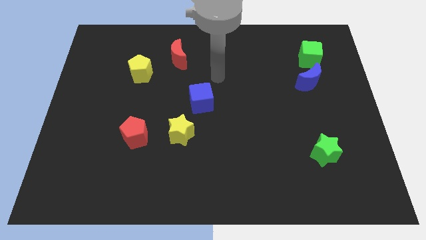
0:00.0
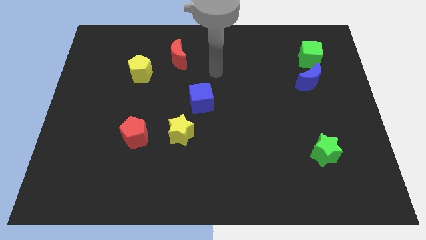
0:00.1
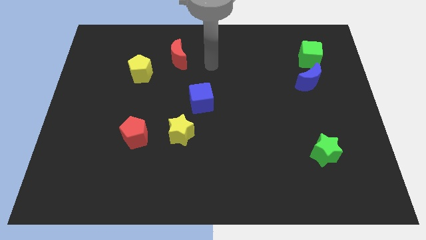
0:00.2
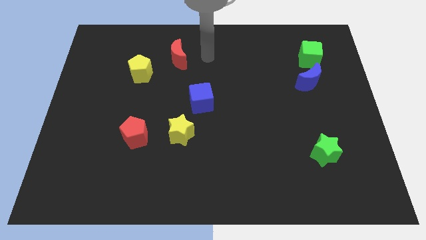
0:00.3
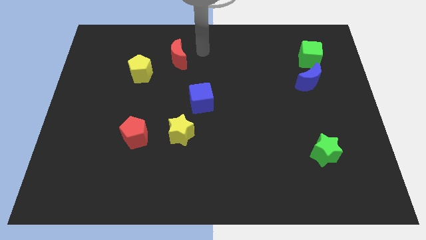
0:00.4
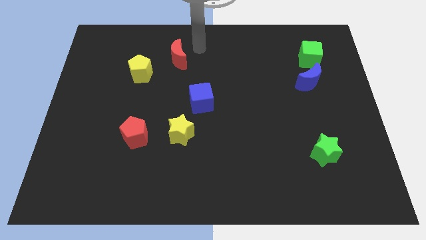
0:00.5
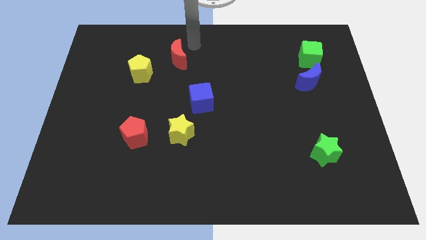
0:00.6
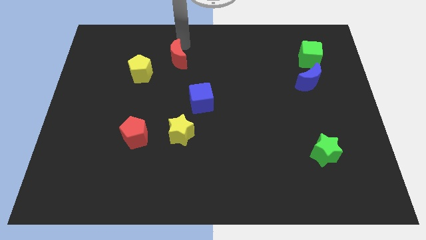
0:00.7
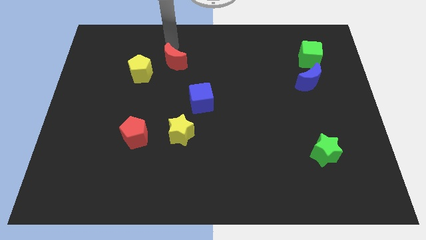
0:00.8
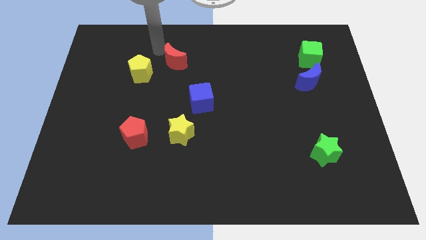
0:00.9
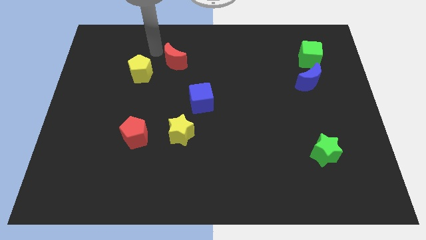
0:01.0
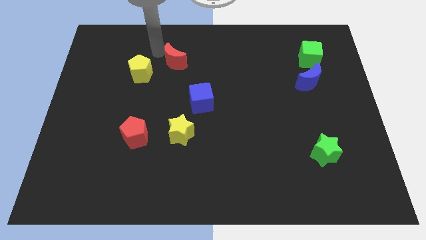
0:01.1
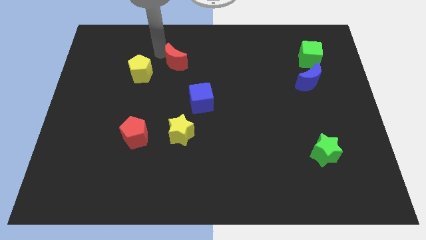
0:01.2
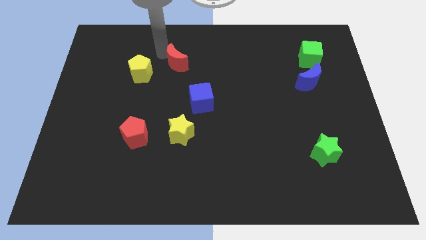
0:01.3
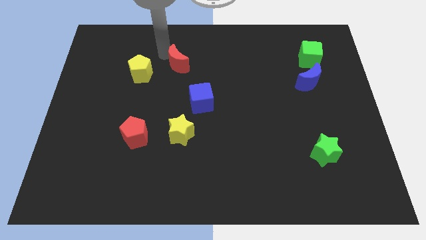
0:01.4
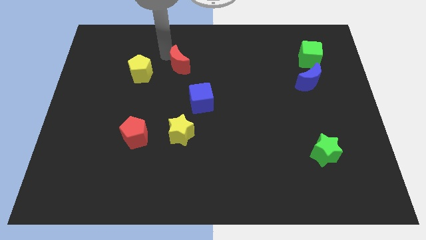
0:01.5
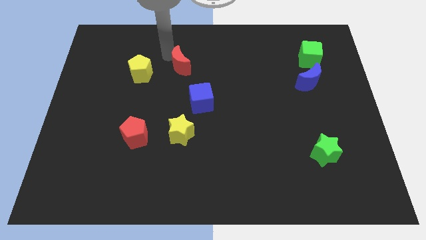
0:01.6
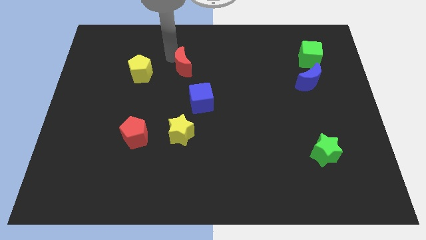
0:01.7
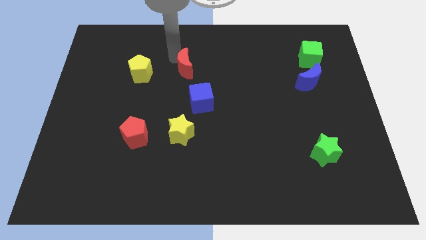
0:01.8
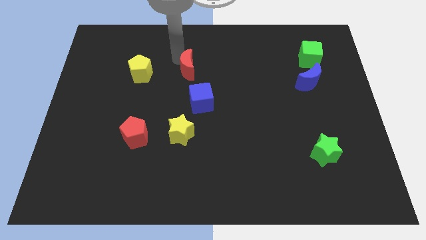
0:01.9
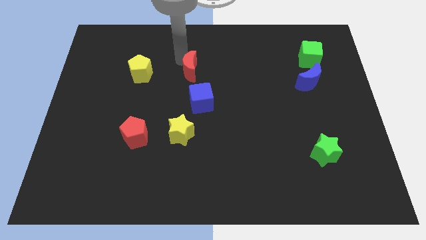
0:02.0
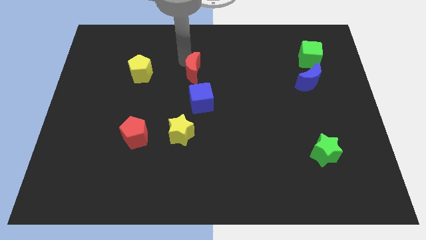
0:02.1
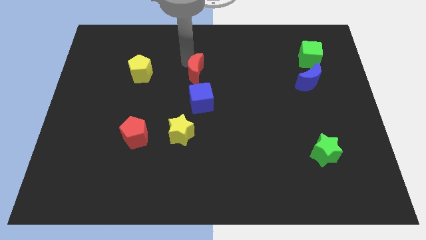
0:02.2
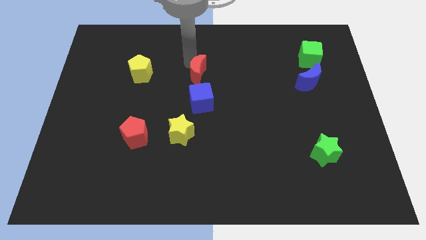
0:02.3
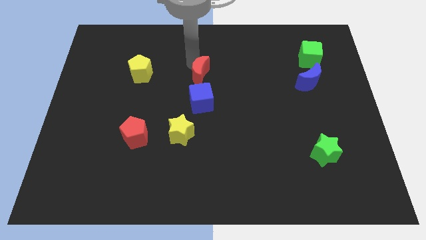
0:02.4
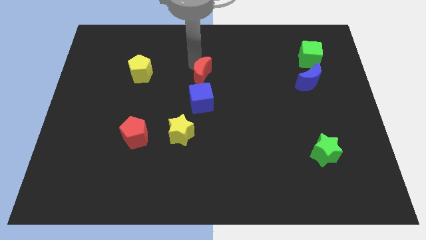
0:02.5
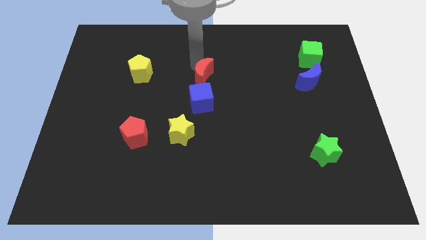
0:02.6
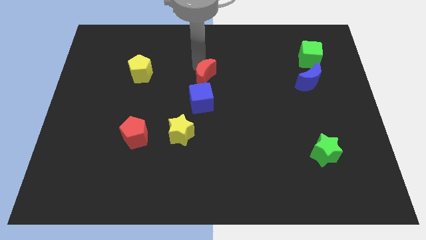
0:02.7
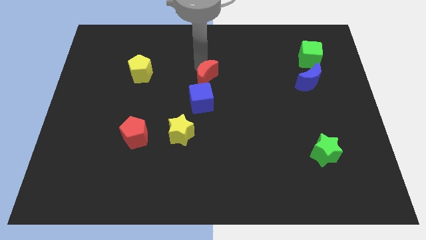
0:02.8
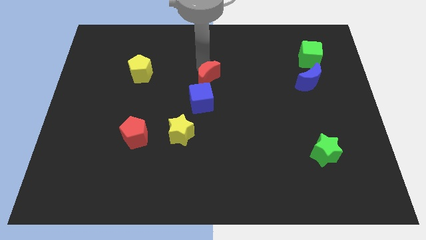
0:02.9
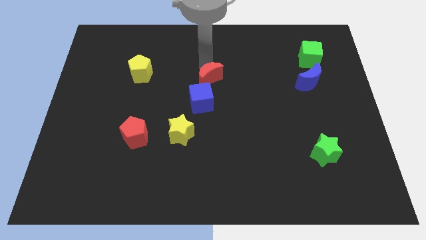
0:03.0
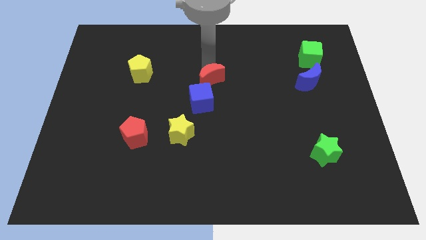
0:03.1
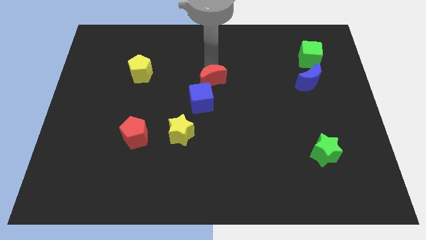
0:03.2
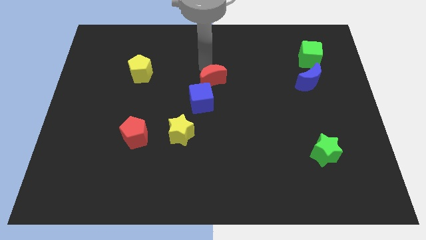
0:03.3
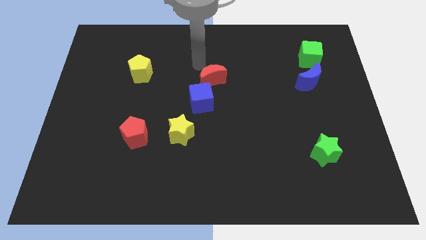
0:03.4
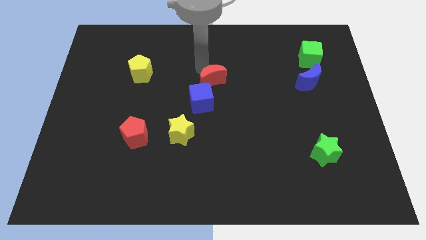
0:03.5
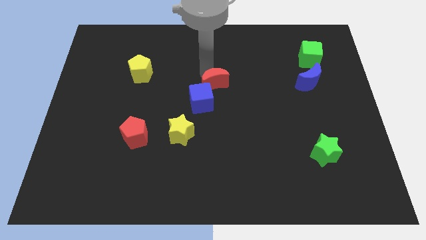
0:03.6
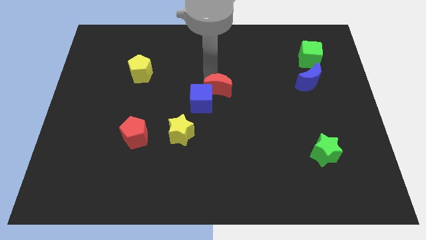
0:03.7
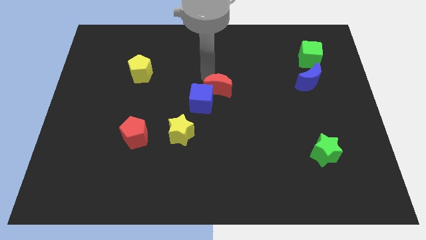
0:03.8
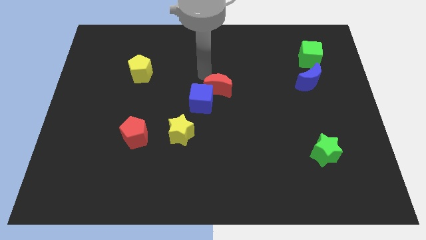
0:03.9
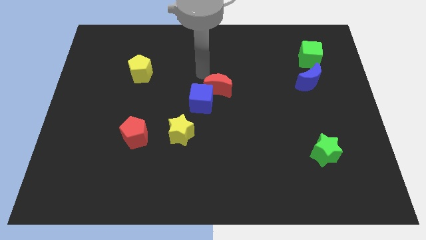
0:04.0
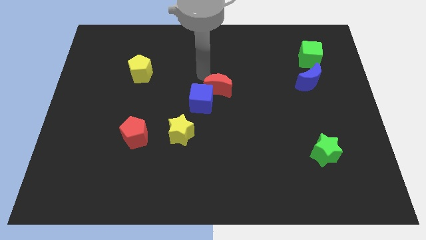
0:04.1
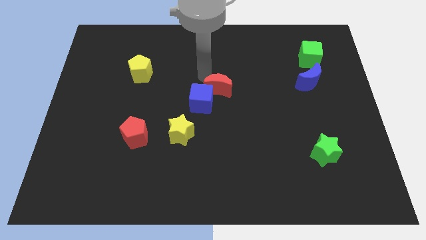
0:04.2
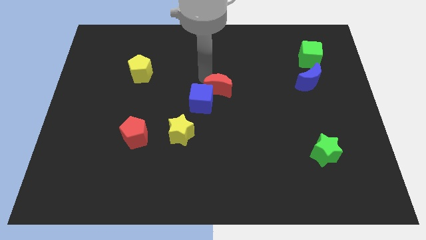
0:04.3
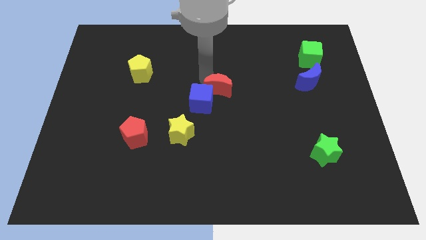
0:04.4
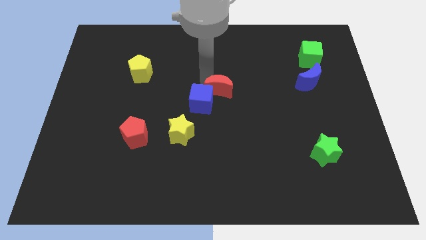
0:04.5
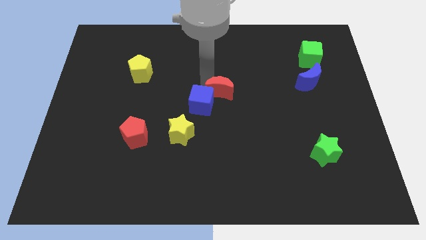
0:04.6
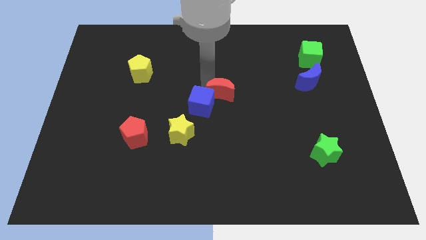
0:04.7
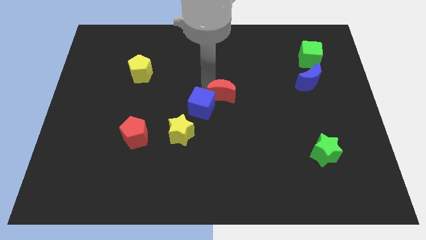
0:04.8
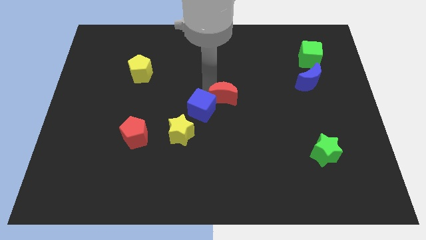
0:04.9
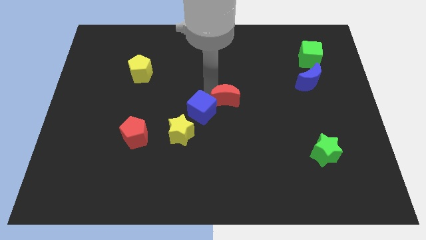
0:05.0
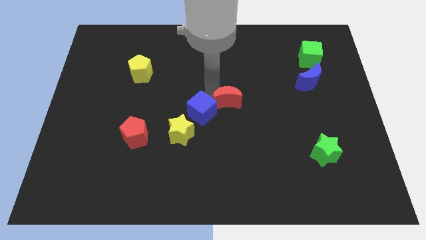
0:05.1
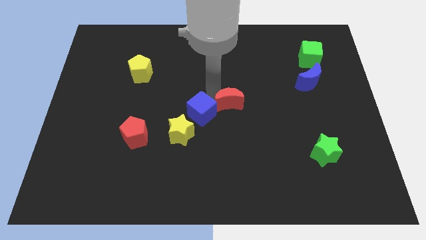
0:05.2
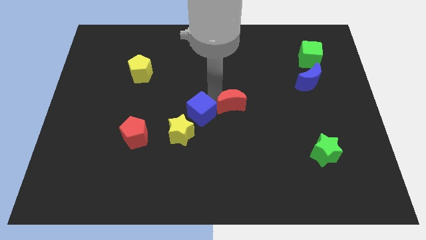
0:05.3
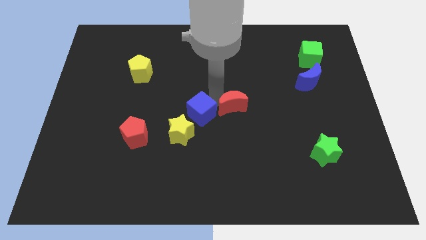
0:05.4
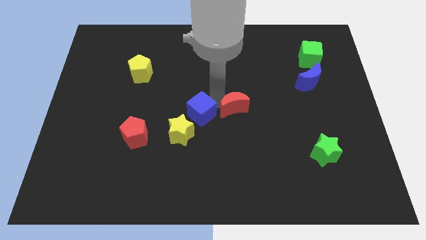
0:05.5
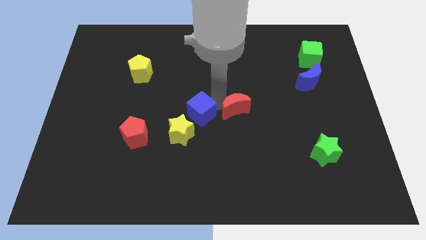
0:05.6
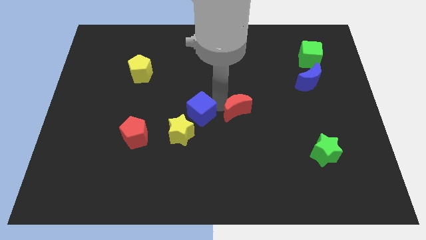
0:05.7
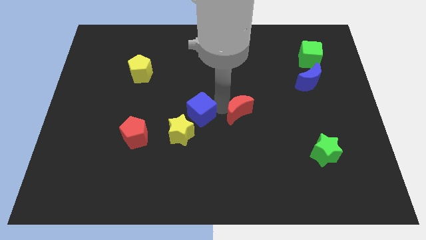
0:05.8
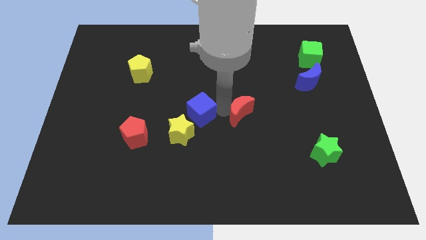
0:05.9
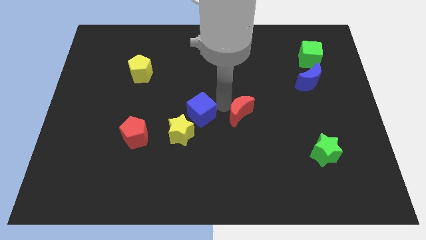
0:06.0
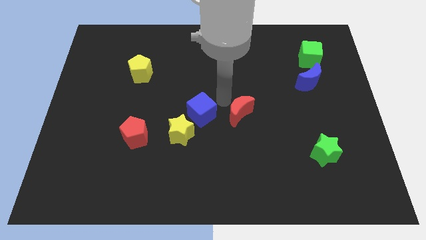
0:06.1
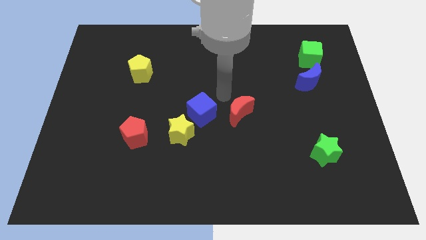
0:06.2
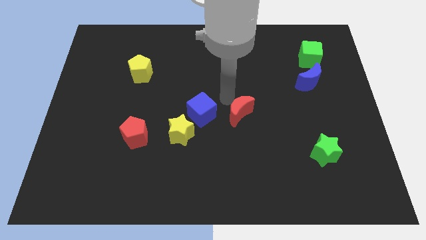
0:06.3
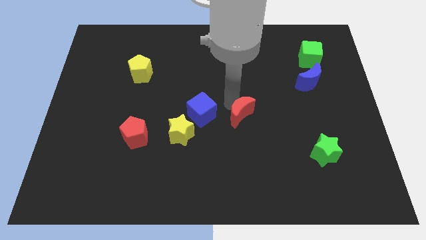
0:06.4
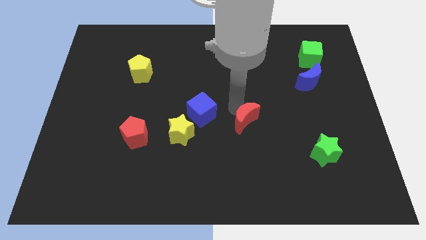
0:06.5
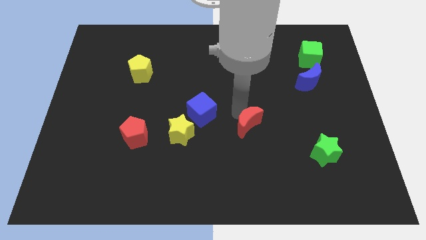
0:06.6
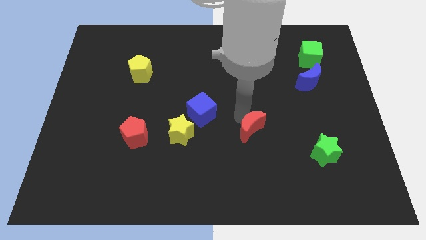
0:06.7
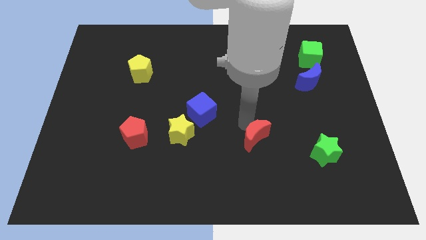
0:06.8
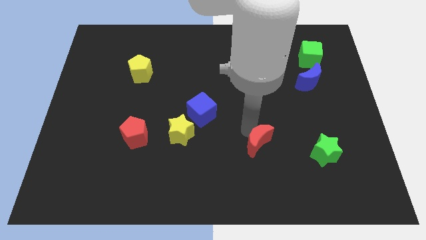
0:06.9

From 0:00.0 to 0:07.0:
push the red moon to the left of the green star
